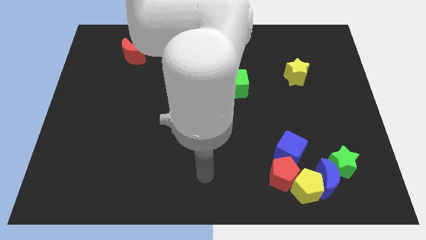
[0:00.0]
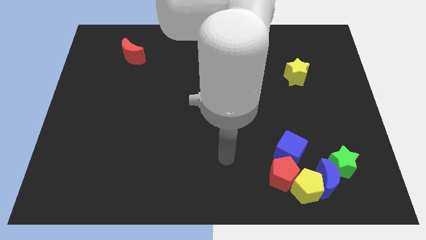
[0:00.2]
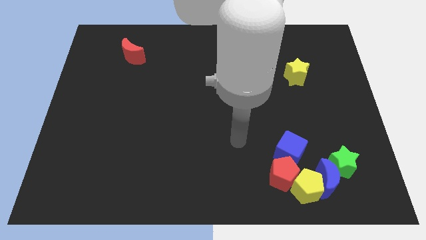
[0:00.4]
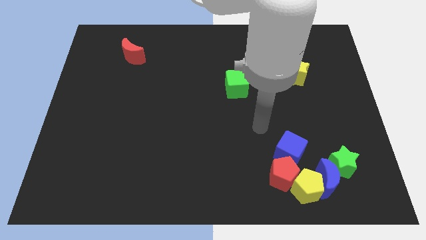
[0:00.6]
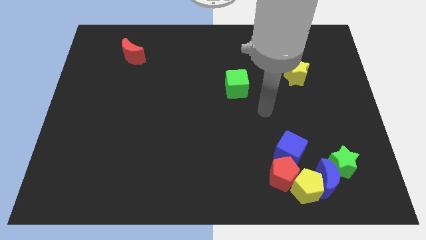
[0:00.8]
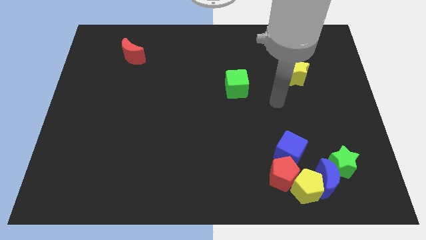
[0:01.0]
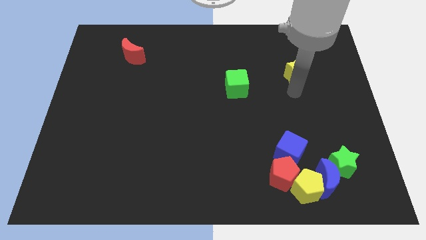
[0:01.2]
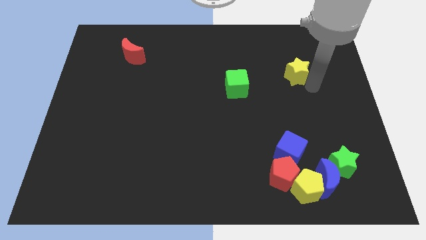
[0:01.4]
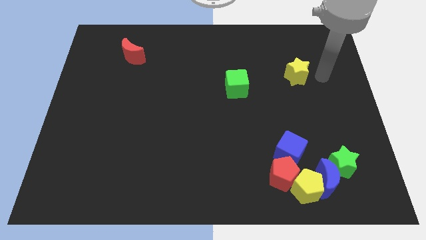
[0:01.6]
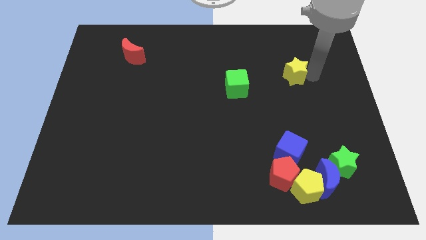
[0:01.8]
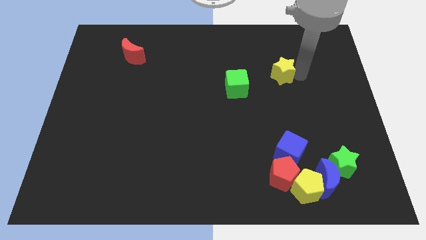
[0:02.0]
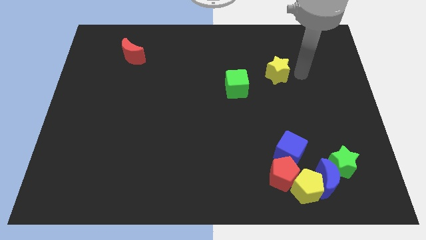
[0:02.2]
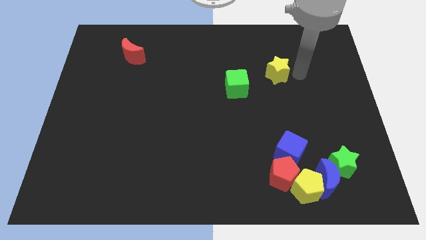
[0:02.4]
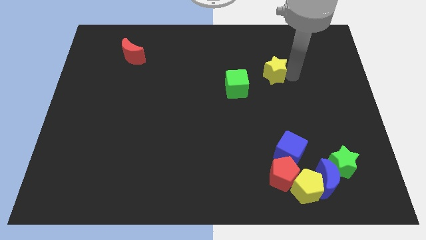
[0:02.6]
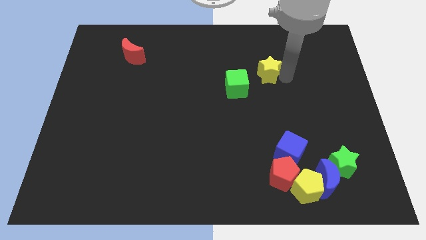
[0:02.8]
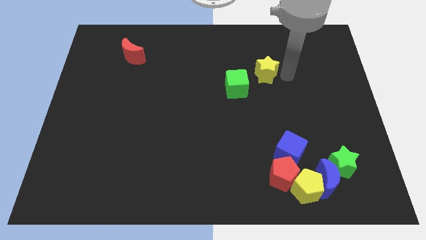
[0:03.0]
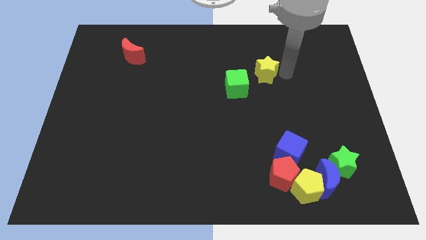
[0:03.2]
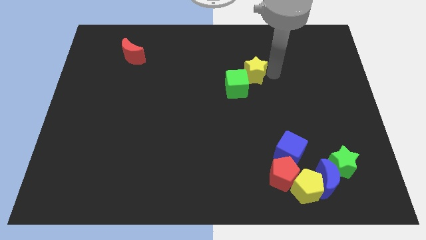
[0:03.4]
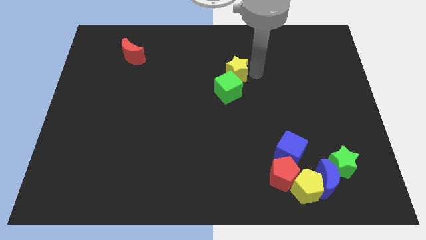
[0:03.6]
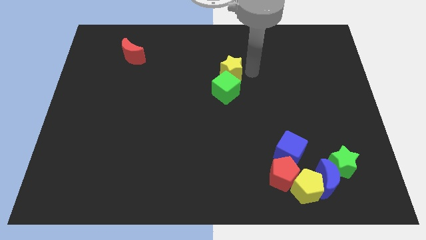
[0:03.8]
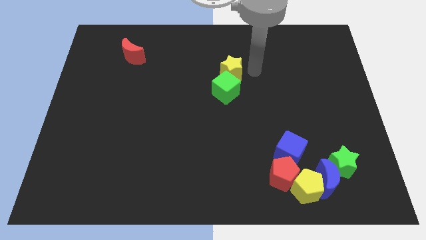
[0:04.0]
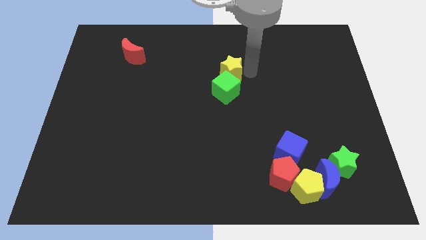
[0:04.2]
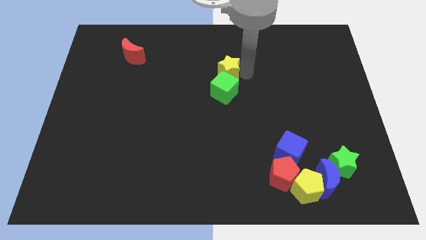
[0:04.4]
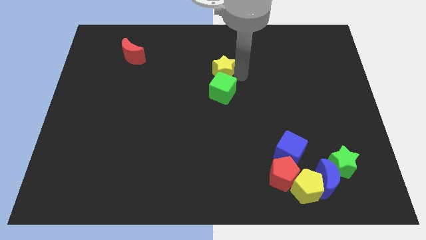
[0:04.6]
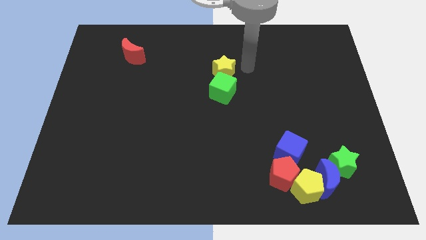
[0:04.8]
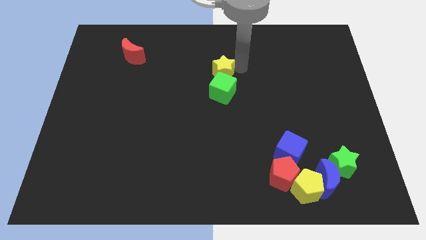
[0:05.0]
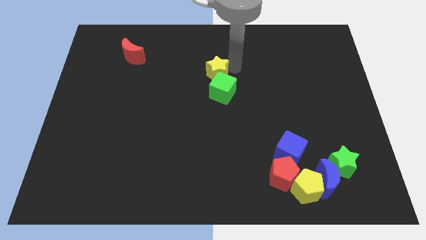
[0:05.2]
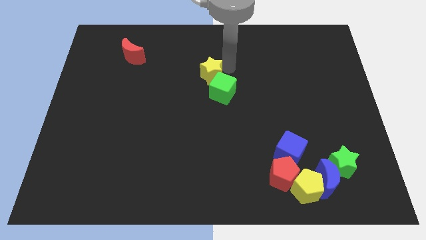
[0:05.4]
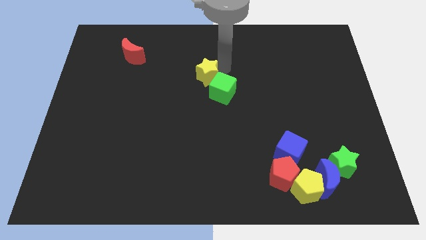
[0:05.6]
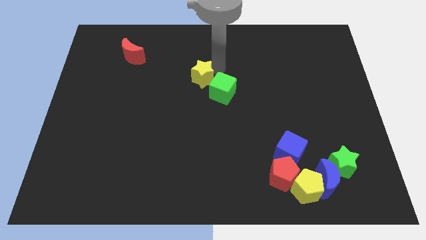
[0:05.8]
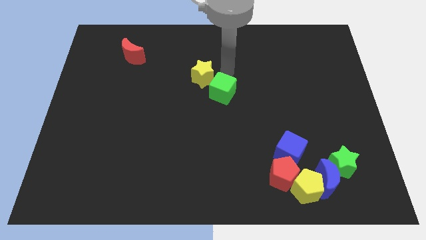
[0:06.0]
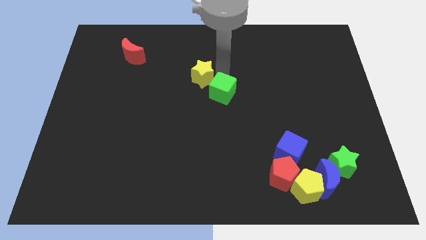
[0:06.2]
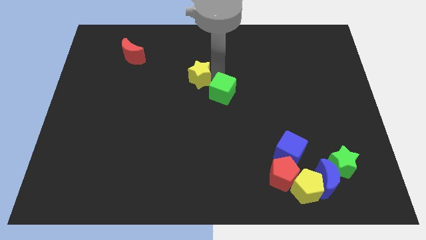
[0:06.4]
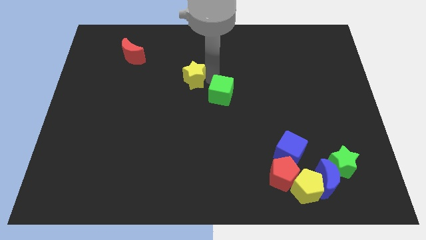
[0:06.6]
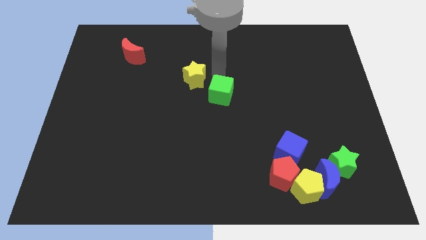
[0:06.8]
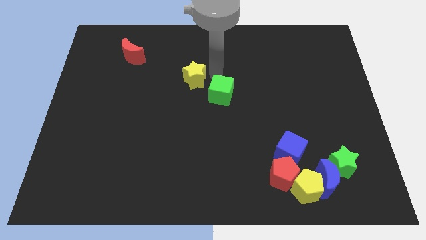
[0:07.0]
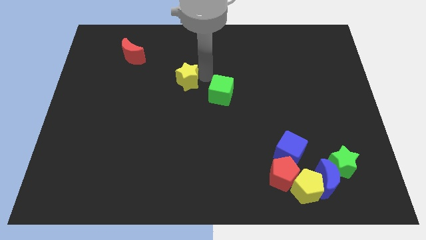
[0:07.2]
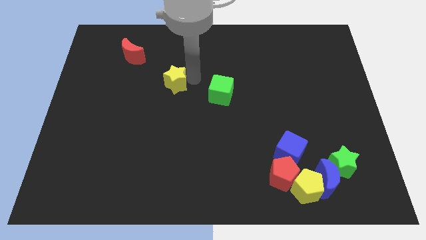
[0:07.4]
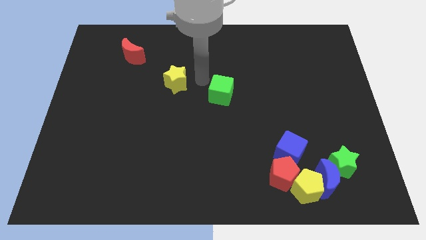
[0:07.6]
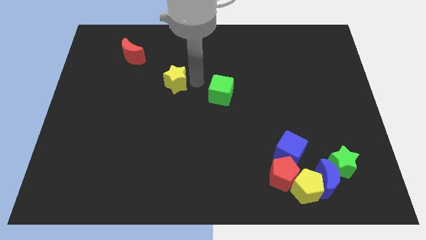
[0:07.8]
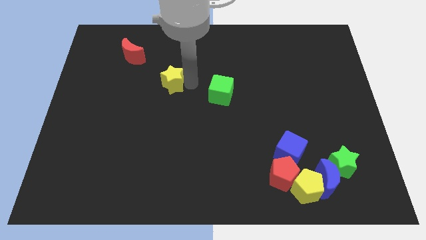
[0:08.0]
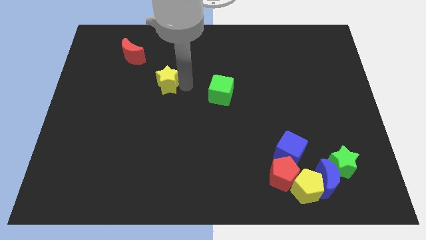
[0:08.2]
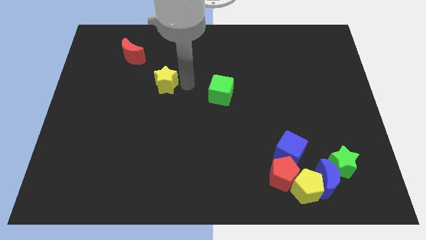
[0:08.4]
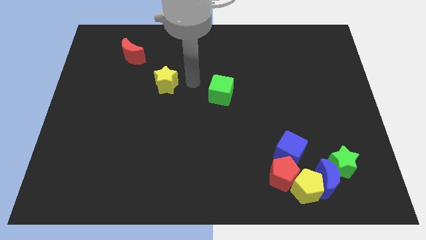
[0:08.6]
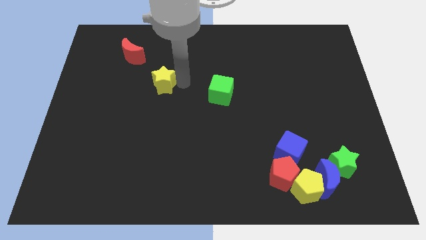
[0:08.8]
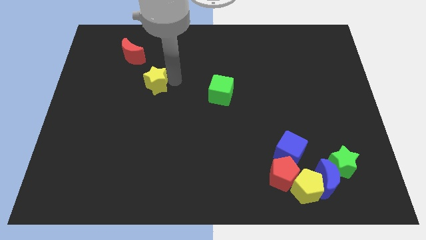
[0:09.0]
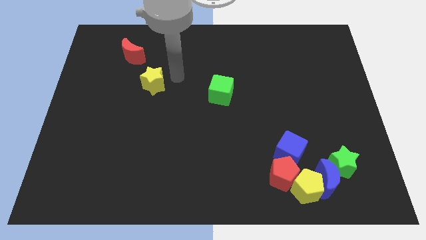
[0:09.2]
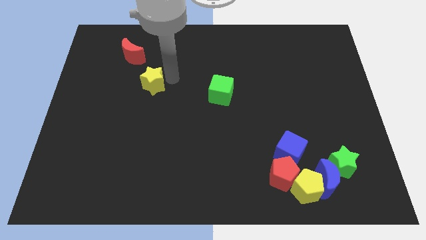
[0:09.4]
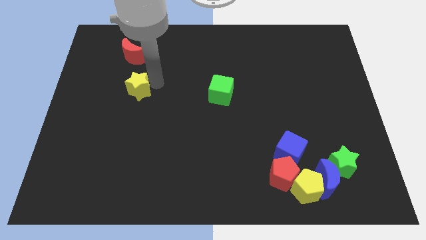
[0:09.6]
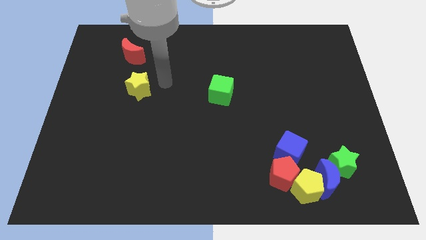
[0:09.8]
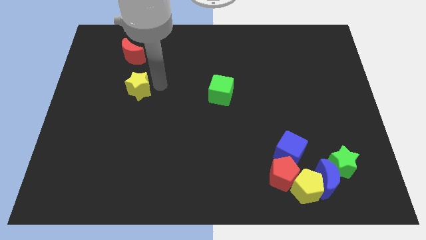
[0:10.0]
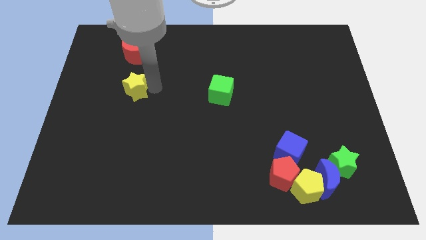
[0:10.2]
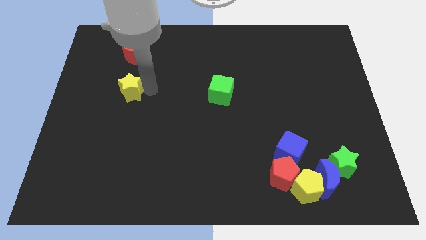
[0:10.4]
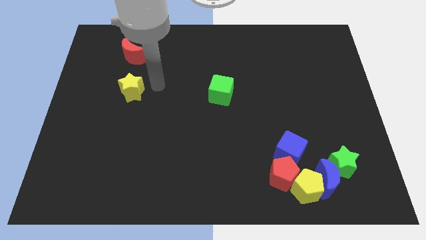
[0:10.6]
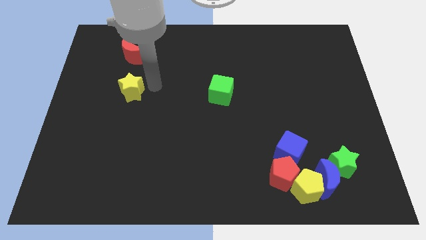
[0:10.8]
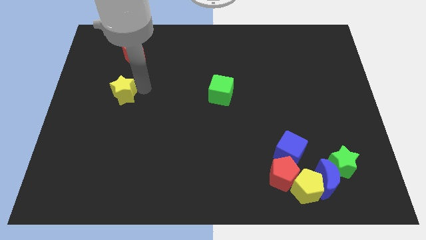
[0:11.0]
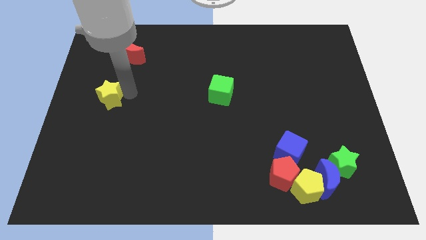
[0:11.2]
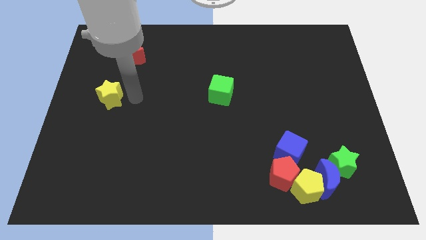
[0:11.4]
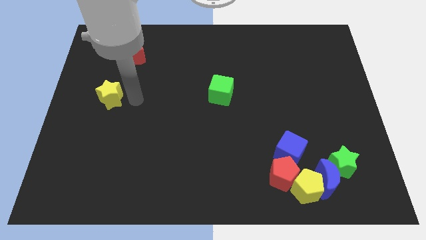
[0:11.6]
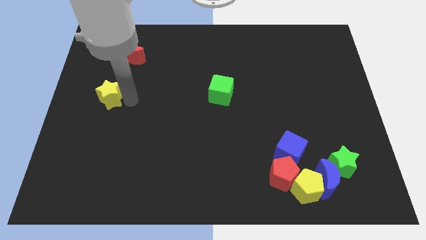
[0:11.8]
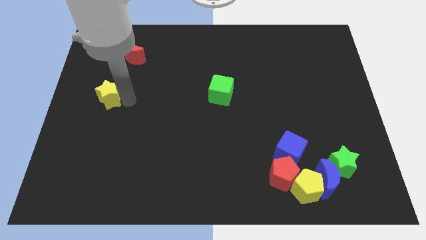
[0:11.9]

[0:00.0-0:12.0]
push the yellow star to the center left

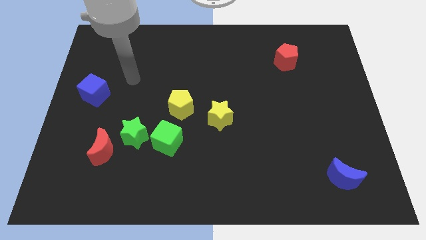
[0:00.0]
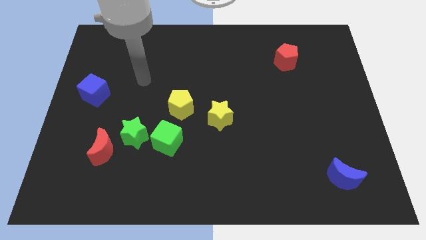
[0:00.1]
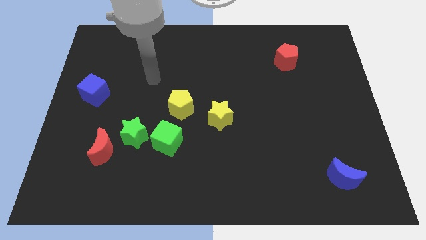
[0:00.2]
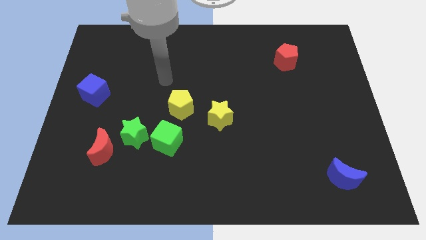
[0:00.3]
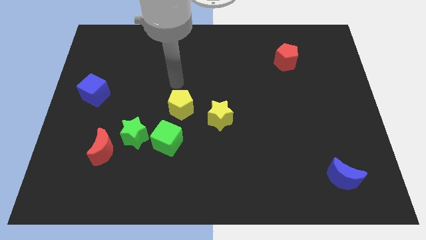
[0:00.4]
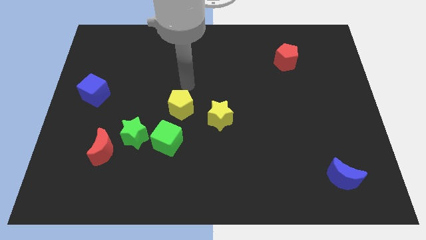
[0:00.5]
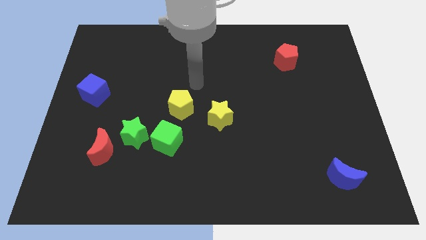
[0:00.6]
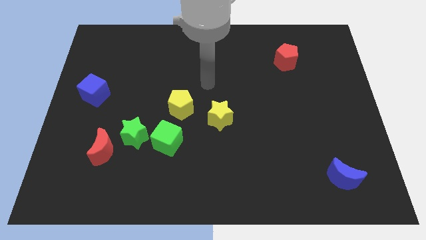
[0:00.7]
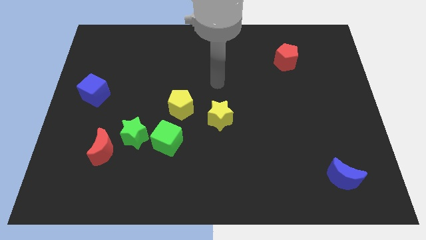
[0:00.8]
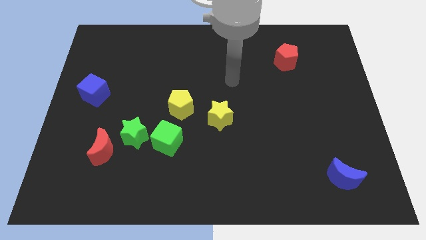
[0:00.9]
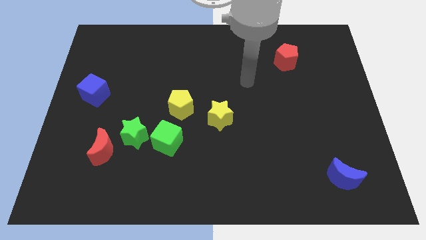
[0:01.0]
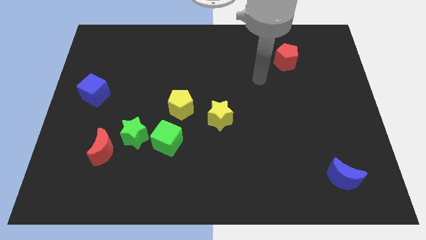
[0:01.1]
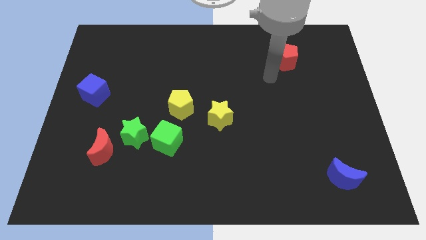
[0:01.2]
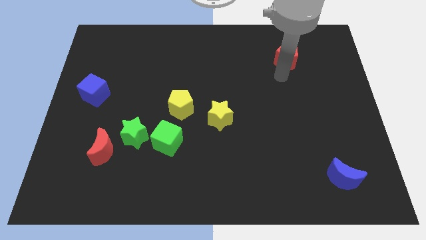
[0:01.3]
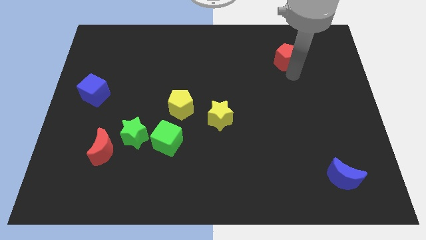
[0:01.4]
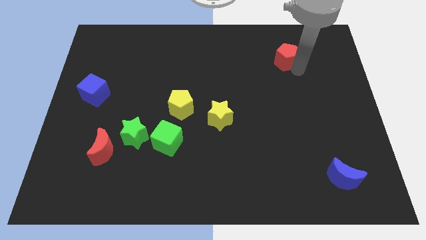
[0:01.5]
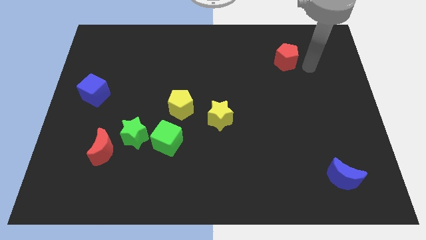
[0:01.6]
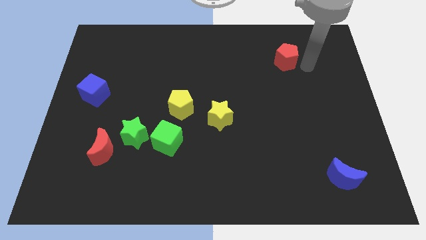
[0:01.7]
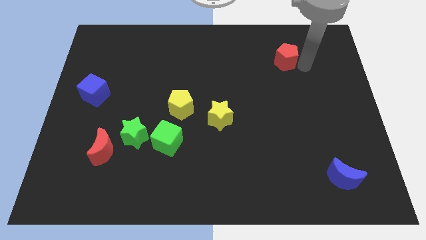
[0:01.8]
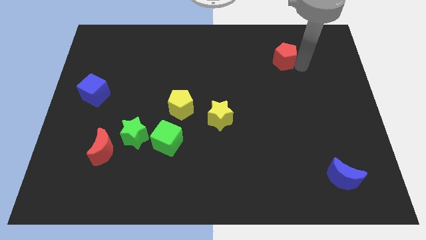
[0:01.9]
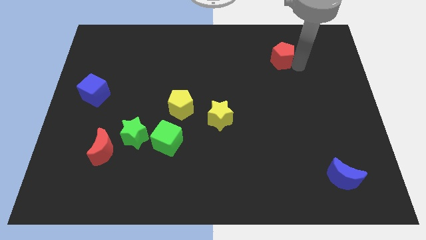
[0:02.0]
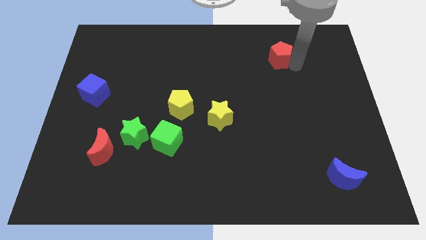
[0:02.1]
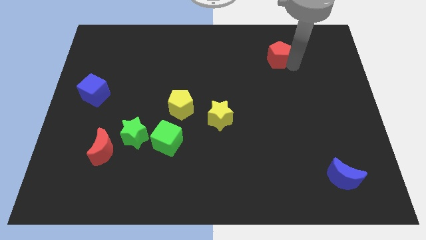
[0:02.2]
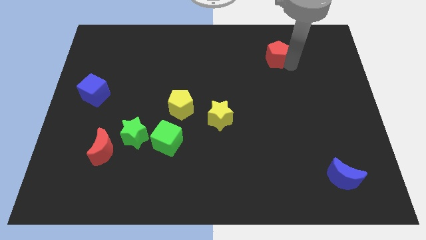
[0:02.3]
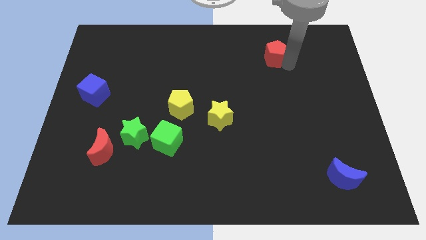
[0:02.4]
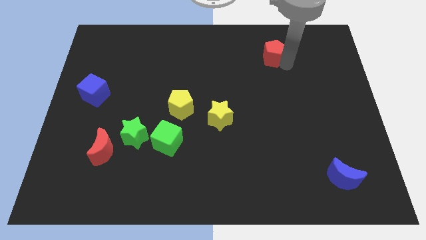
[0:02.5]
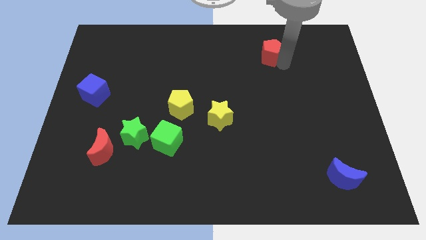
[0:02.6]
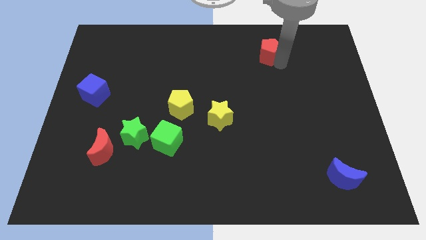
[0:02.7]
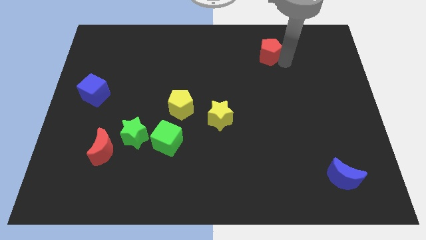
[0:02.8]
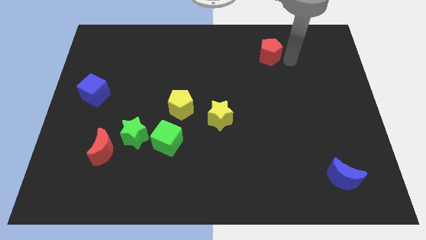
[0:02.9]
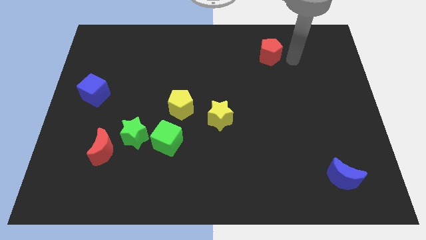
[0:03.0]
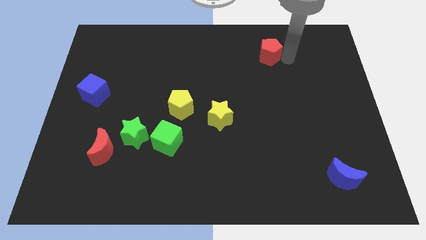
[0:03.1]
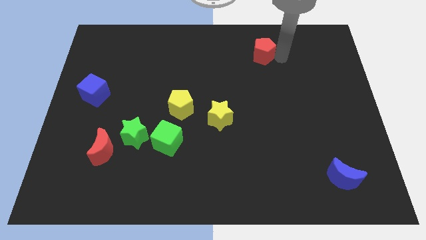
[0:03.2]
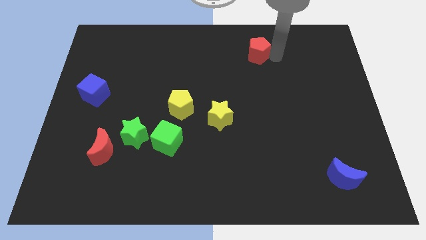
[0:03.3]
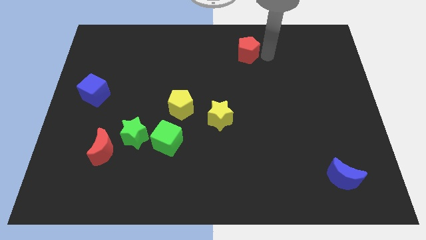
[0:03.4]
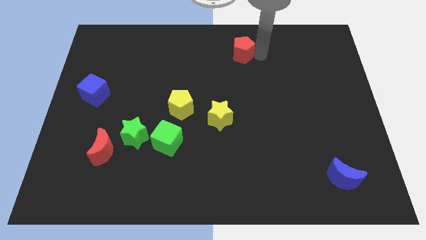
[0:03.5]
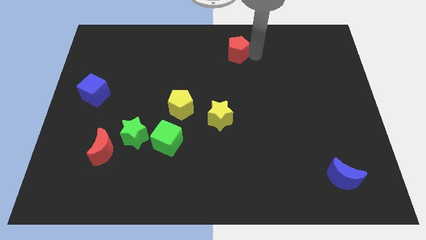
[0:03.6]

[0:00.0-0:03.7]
push the red pentagon to the top side
